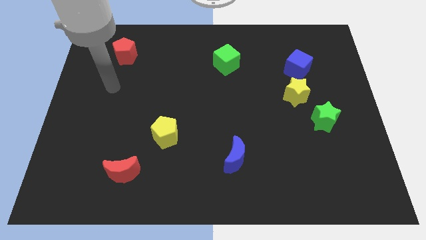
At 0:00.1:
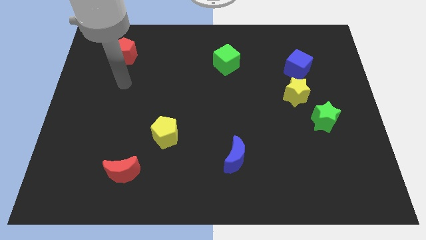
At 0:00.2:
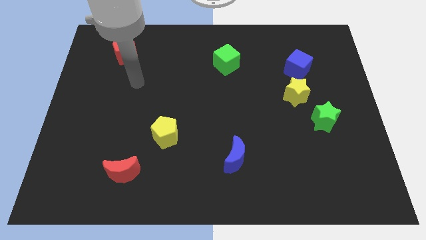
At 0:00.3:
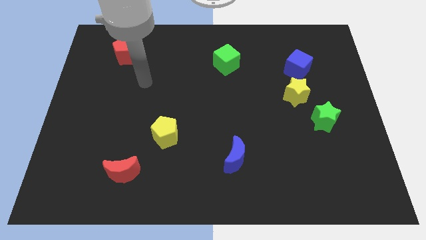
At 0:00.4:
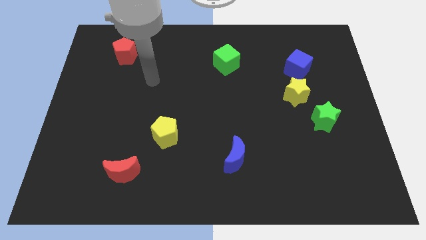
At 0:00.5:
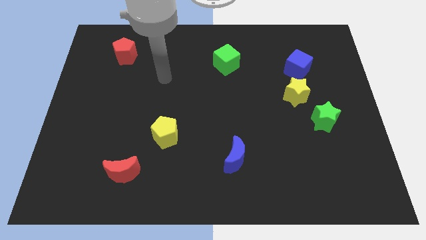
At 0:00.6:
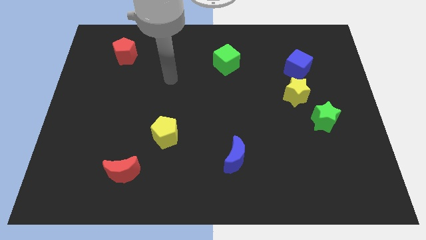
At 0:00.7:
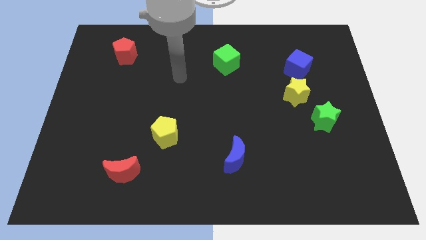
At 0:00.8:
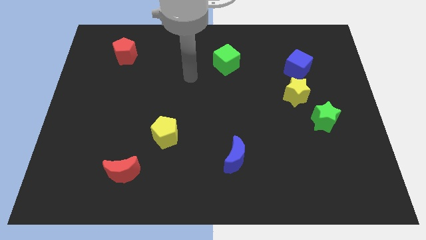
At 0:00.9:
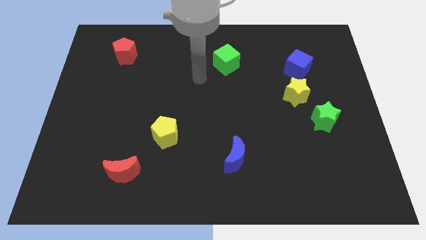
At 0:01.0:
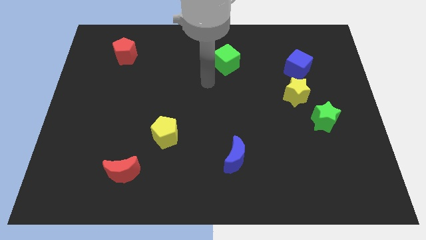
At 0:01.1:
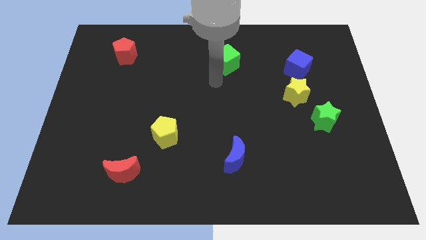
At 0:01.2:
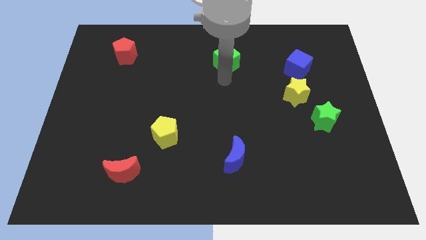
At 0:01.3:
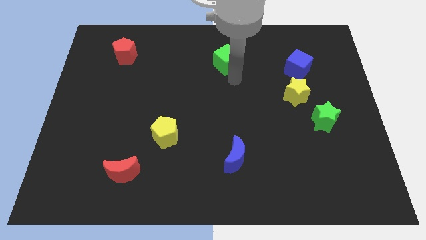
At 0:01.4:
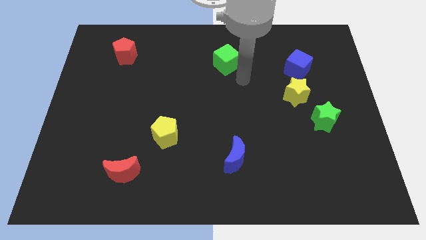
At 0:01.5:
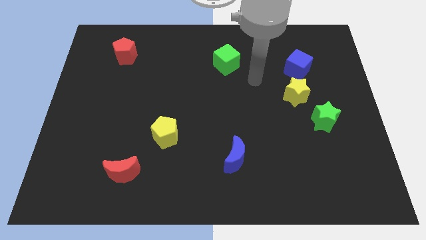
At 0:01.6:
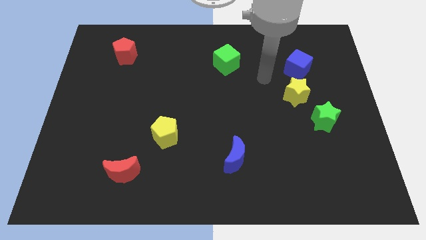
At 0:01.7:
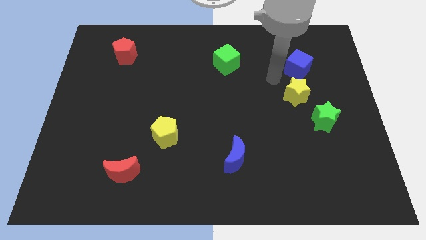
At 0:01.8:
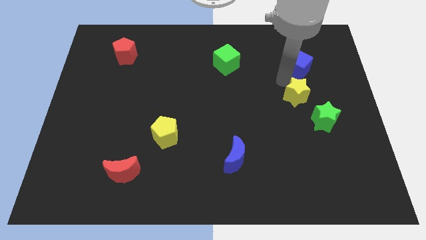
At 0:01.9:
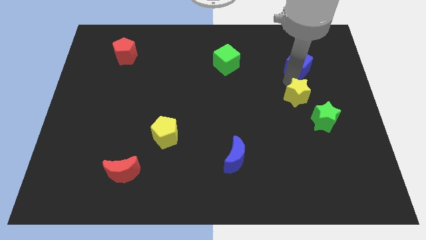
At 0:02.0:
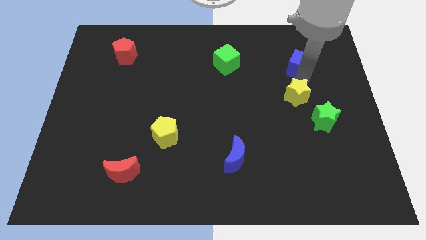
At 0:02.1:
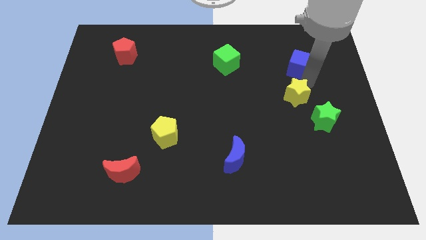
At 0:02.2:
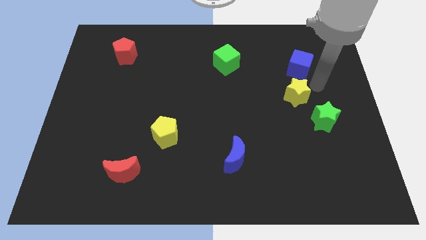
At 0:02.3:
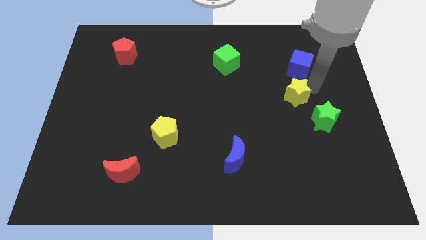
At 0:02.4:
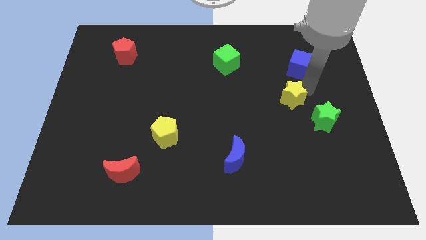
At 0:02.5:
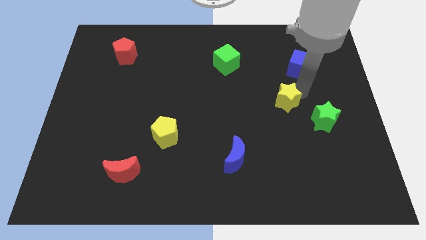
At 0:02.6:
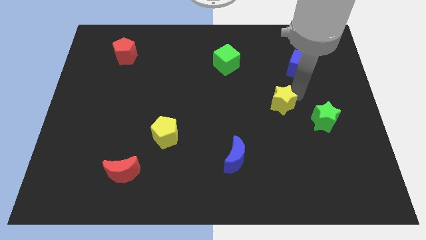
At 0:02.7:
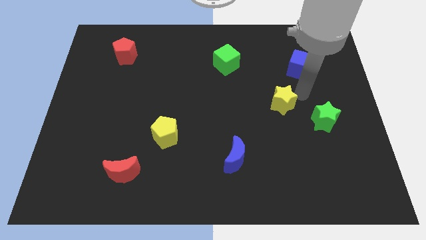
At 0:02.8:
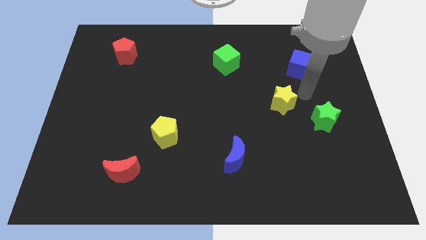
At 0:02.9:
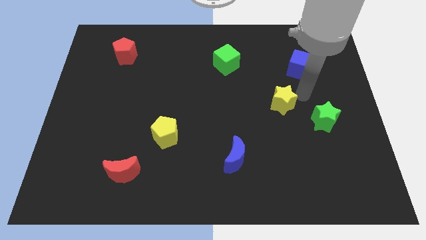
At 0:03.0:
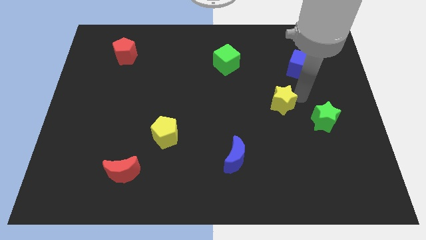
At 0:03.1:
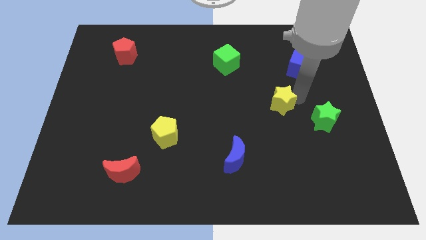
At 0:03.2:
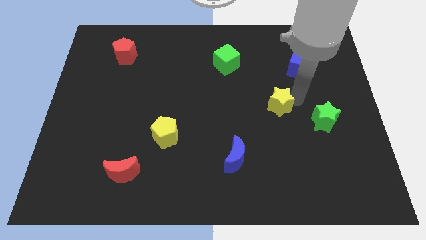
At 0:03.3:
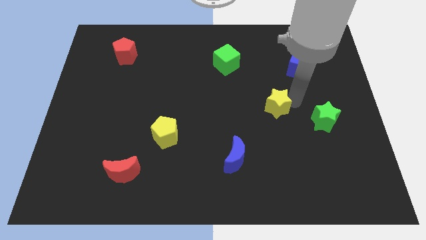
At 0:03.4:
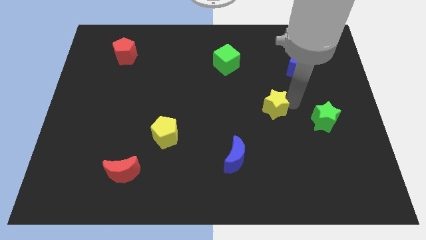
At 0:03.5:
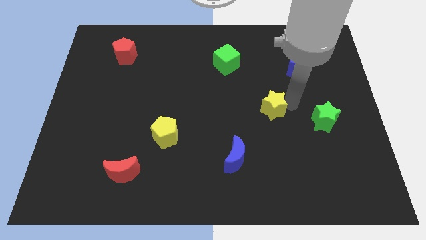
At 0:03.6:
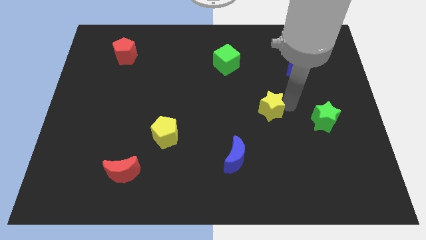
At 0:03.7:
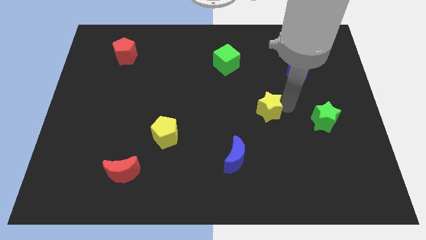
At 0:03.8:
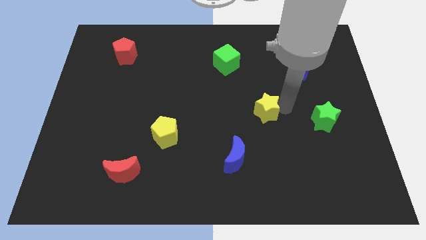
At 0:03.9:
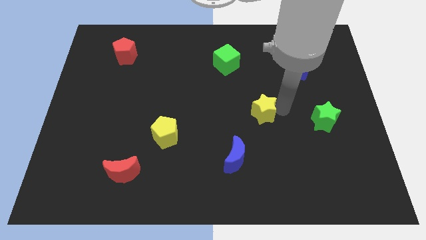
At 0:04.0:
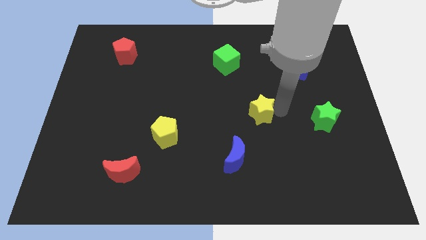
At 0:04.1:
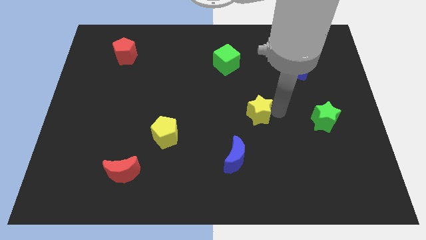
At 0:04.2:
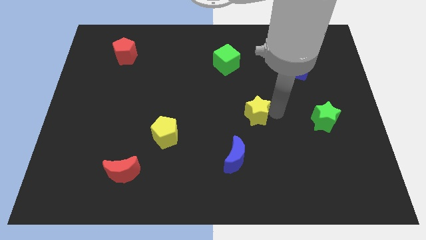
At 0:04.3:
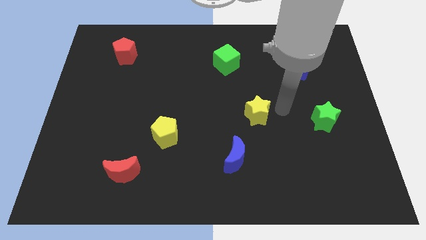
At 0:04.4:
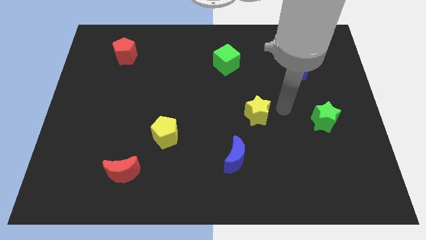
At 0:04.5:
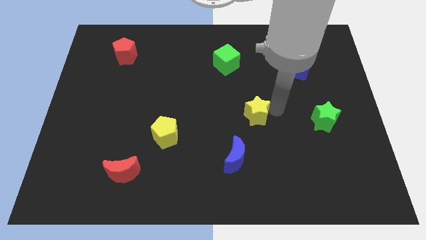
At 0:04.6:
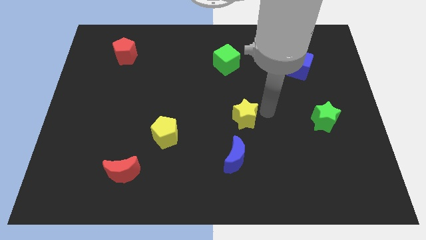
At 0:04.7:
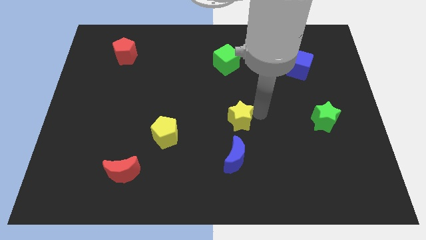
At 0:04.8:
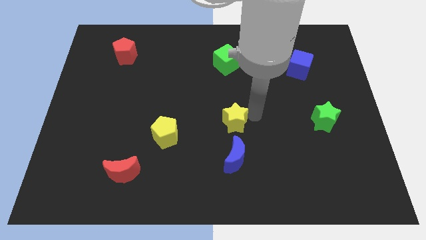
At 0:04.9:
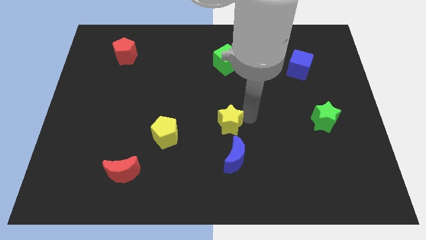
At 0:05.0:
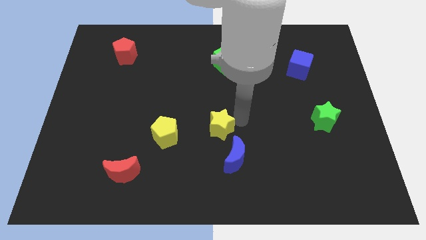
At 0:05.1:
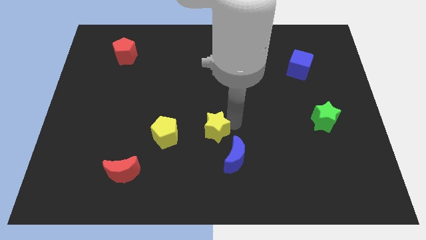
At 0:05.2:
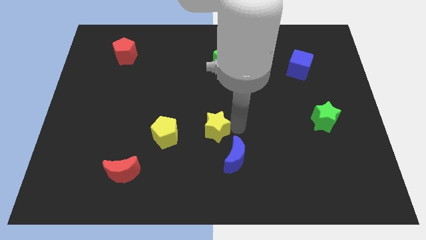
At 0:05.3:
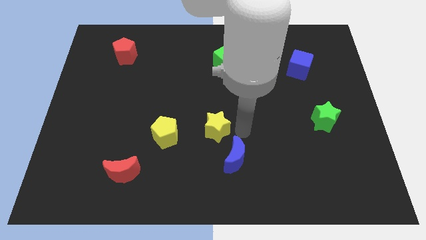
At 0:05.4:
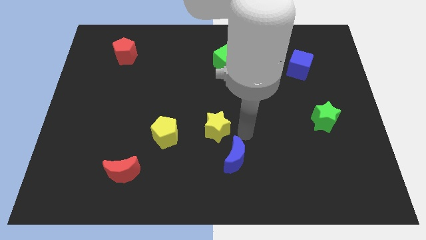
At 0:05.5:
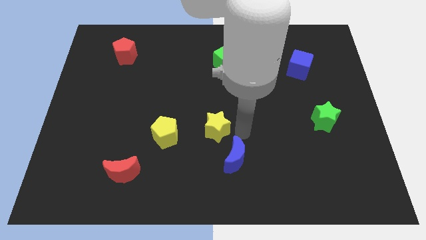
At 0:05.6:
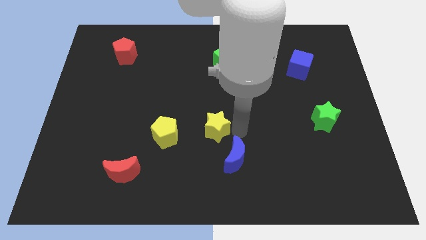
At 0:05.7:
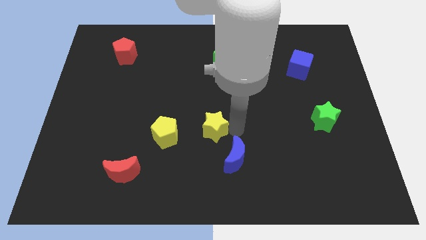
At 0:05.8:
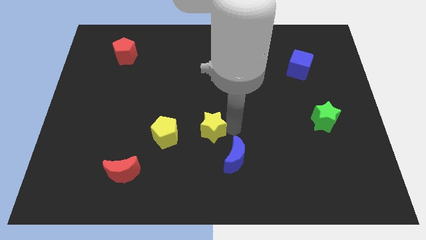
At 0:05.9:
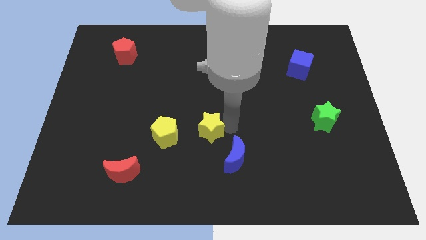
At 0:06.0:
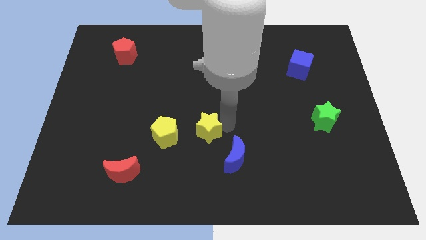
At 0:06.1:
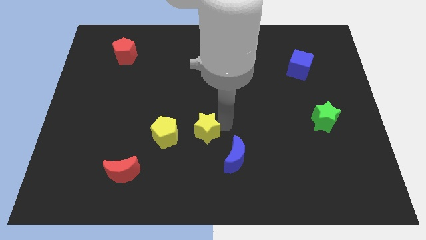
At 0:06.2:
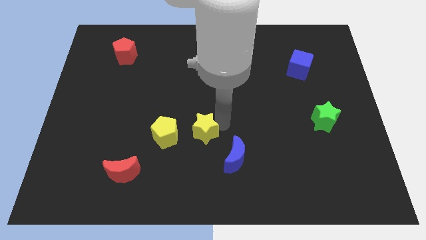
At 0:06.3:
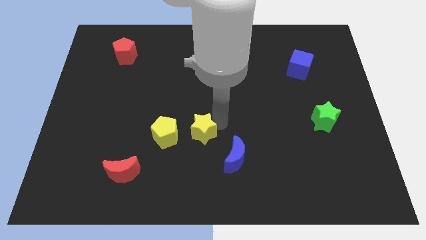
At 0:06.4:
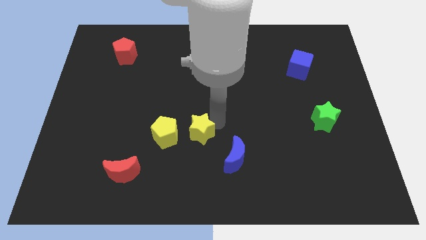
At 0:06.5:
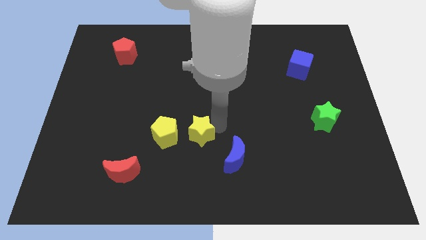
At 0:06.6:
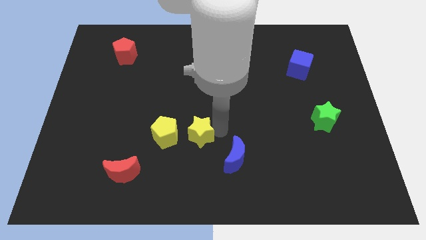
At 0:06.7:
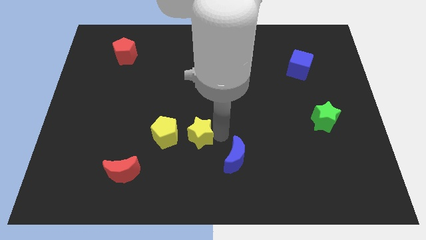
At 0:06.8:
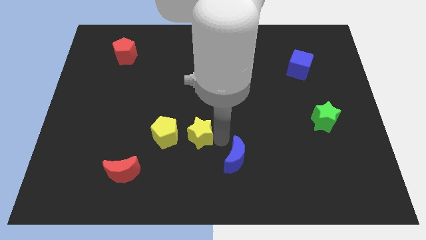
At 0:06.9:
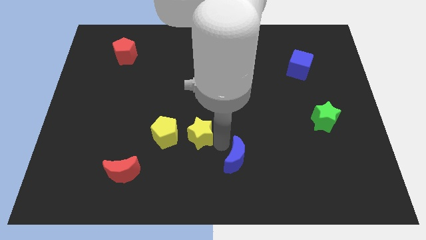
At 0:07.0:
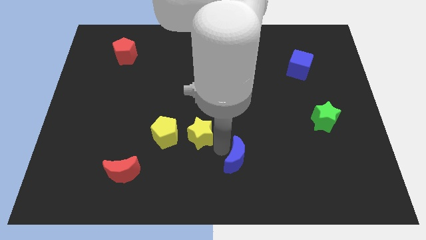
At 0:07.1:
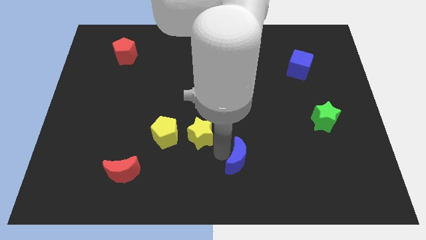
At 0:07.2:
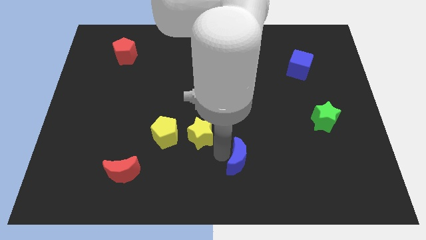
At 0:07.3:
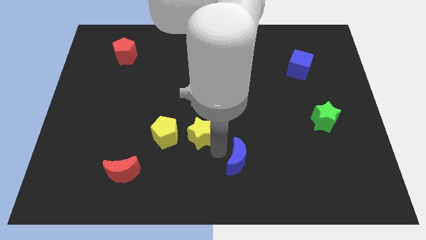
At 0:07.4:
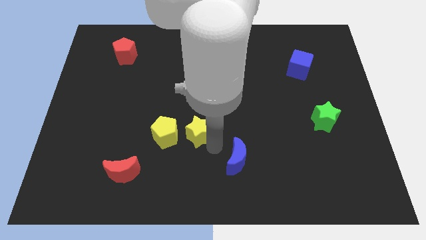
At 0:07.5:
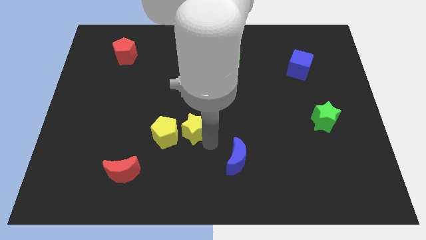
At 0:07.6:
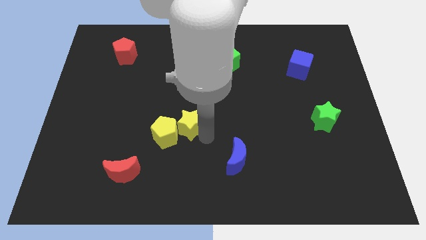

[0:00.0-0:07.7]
move the yellow star next to the yellow pentagon
